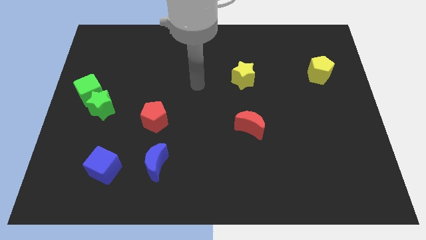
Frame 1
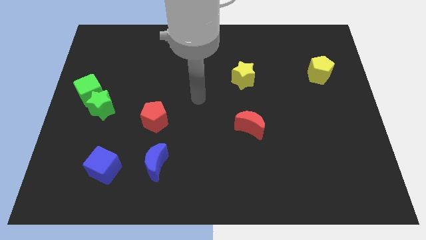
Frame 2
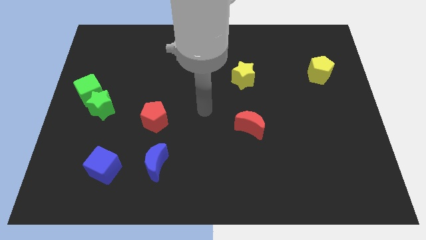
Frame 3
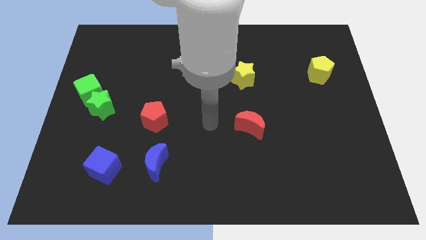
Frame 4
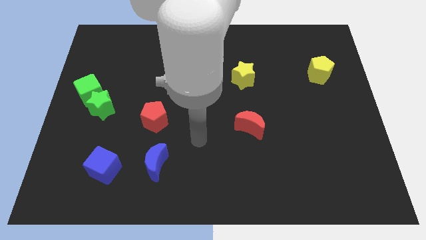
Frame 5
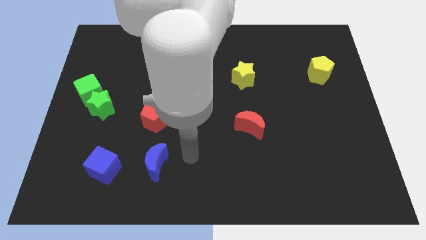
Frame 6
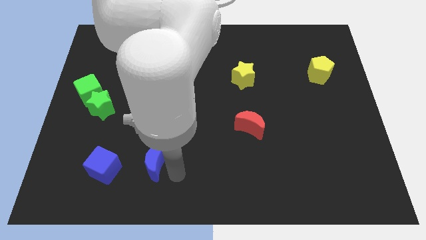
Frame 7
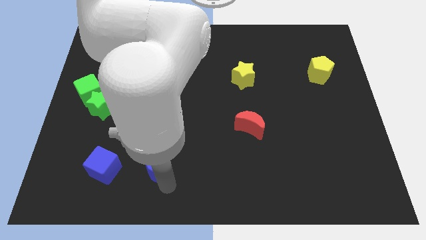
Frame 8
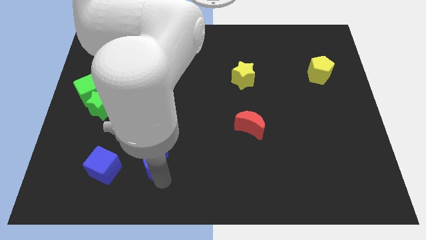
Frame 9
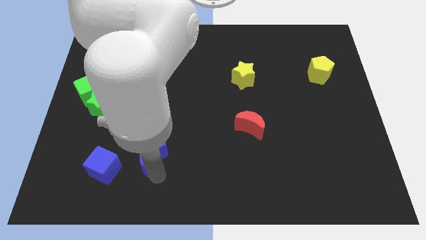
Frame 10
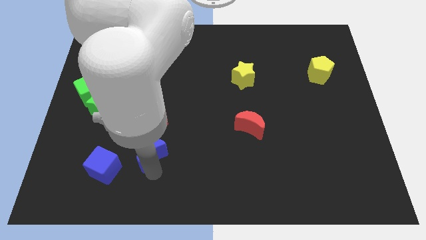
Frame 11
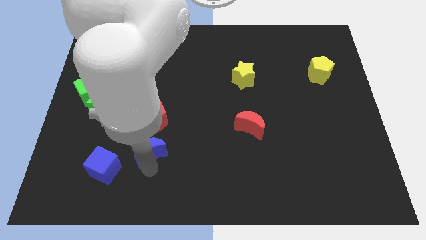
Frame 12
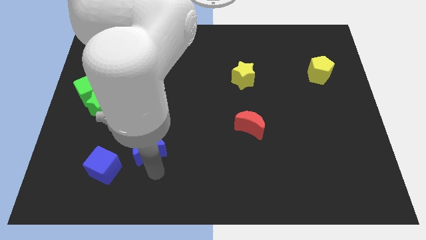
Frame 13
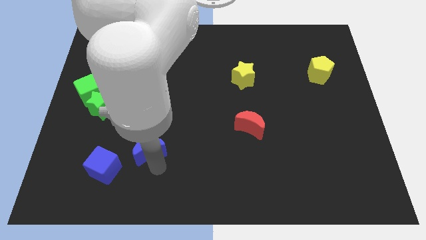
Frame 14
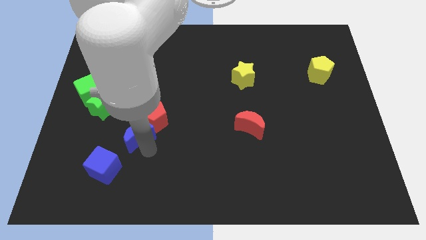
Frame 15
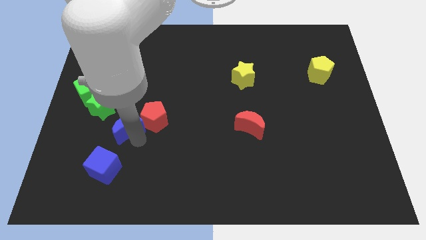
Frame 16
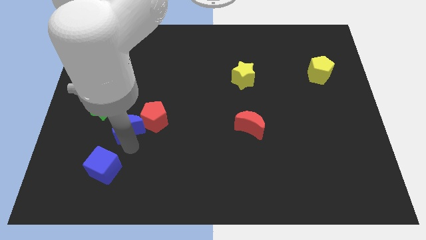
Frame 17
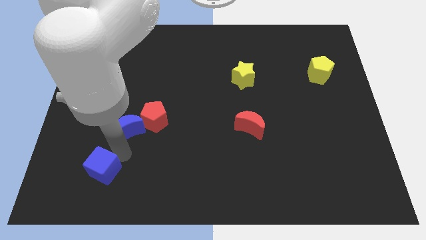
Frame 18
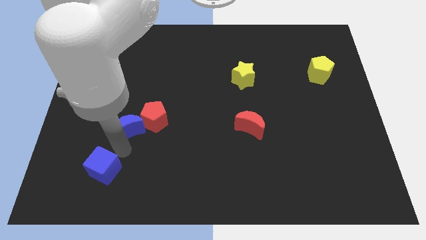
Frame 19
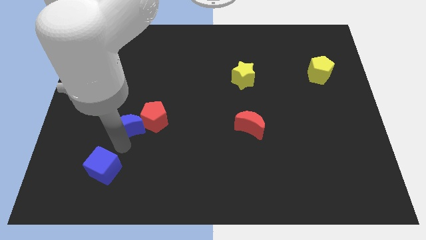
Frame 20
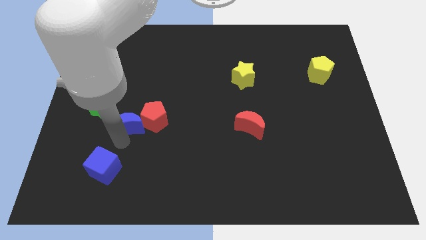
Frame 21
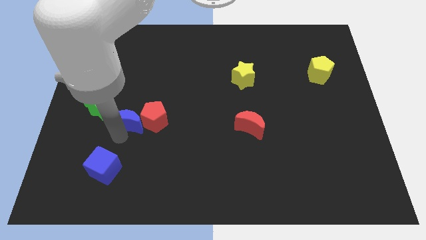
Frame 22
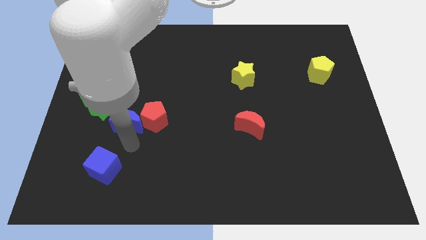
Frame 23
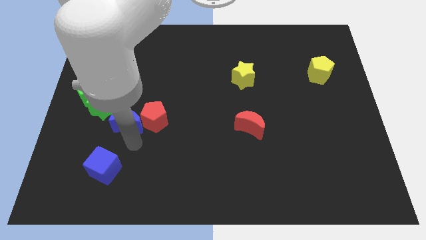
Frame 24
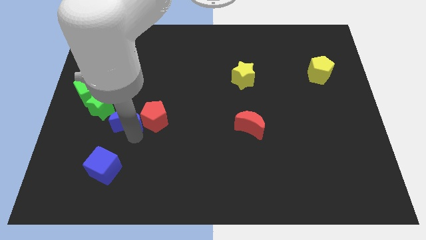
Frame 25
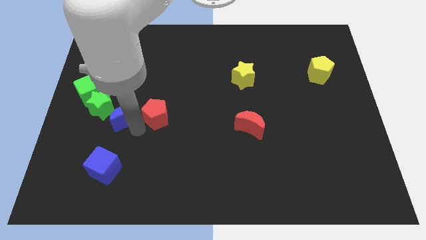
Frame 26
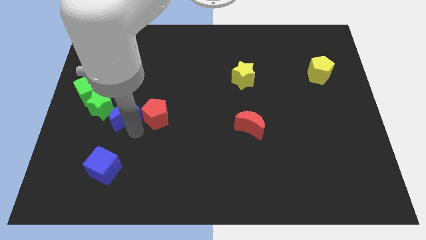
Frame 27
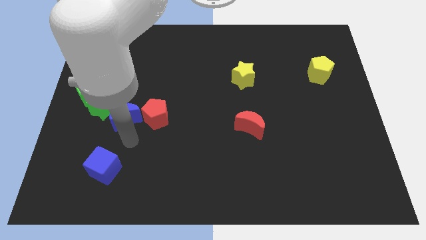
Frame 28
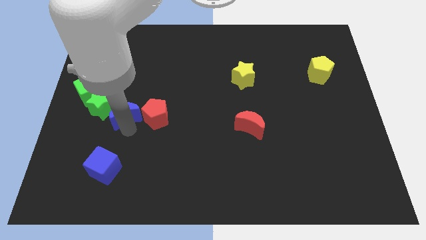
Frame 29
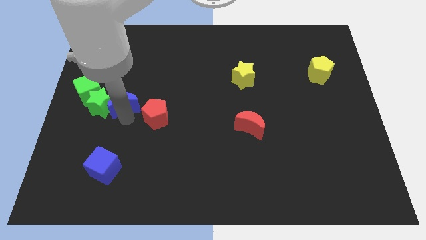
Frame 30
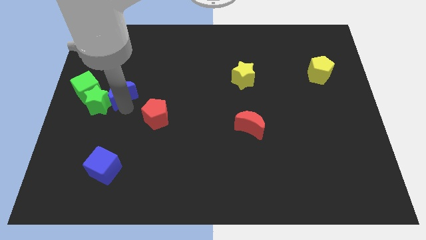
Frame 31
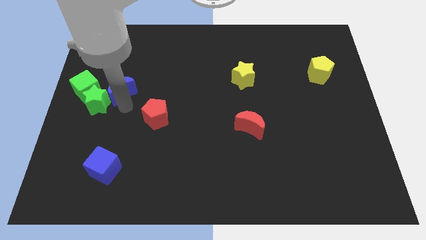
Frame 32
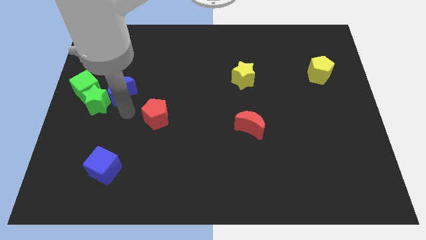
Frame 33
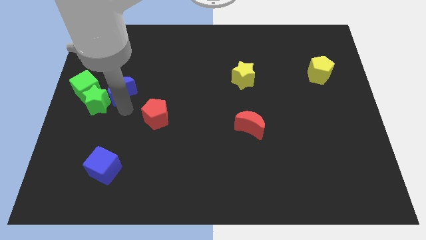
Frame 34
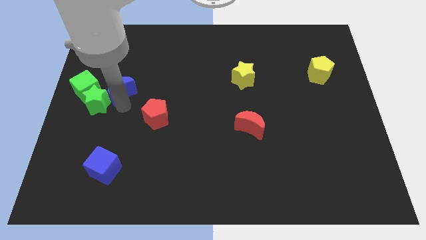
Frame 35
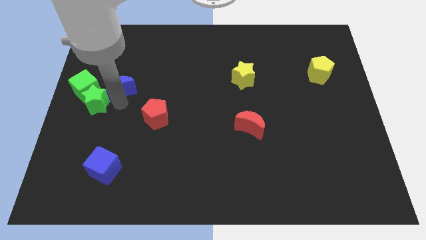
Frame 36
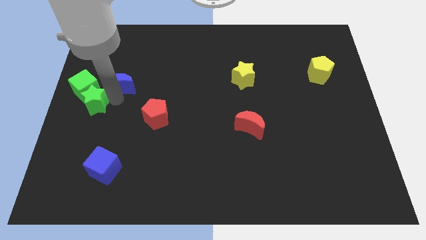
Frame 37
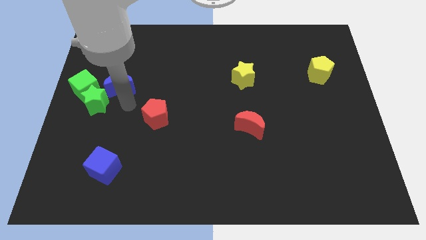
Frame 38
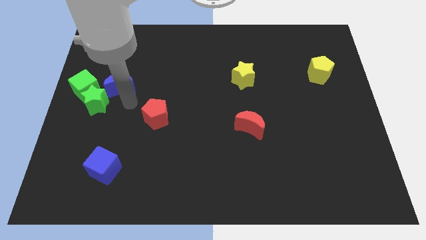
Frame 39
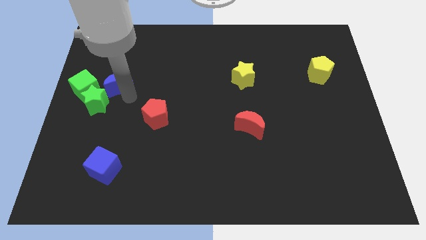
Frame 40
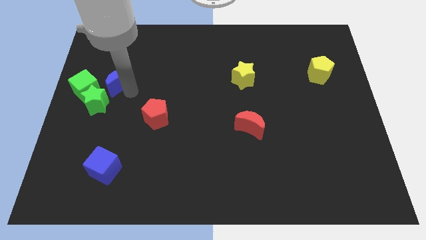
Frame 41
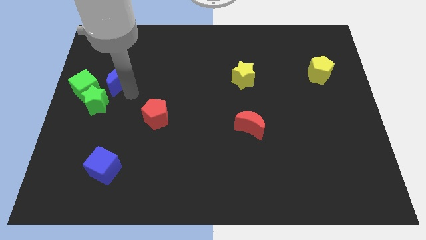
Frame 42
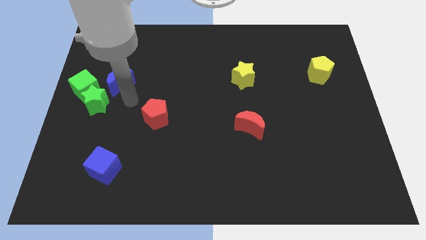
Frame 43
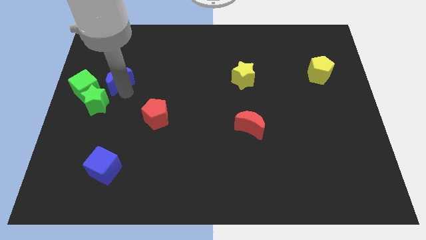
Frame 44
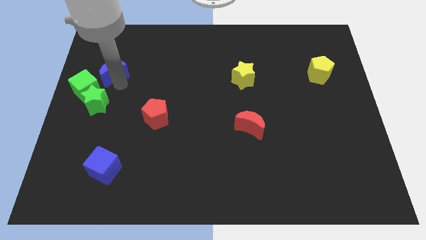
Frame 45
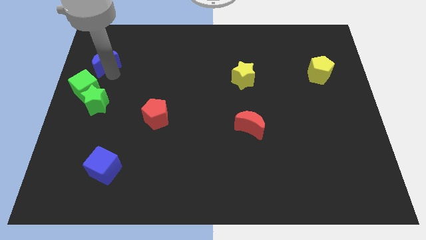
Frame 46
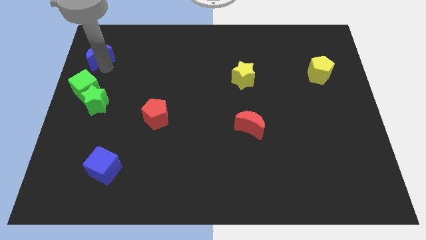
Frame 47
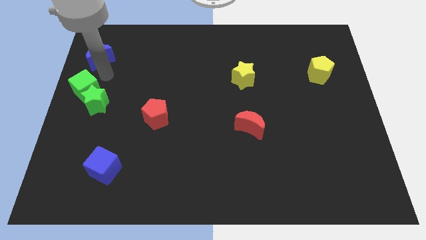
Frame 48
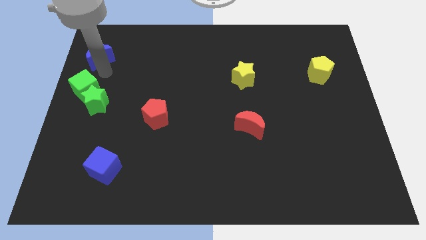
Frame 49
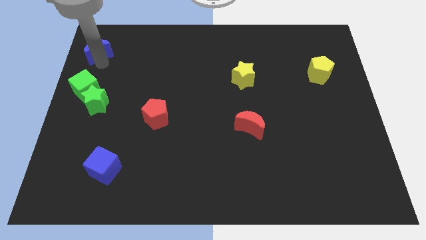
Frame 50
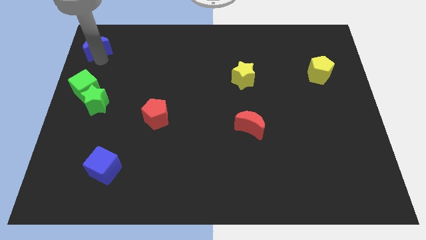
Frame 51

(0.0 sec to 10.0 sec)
push the blue moon to the upper left corner
